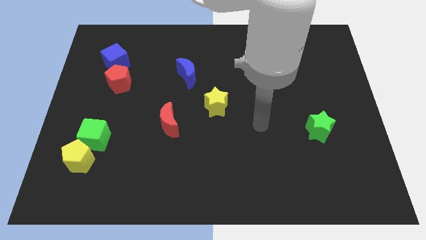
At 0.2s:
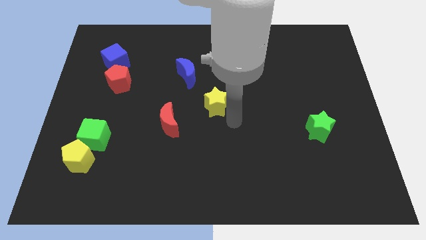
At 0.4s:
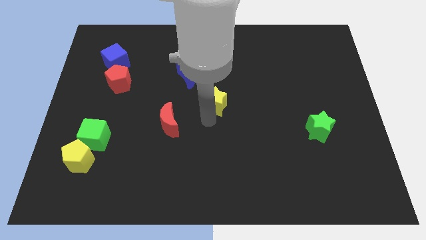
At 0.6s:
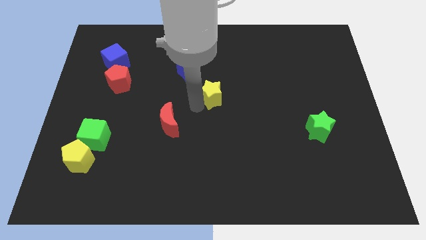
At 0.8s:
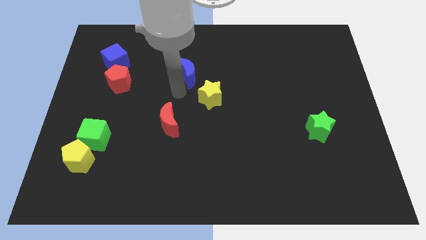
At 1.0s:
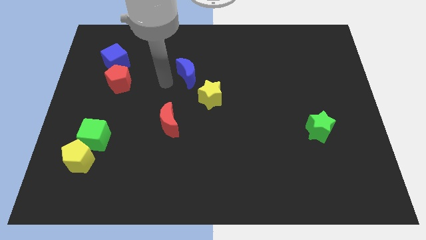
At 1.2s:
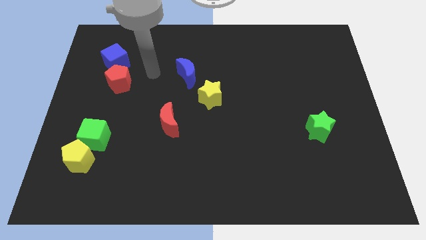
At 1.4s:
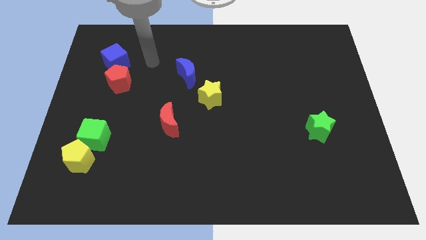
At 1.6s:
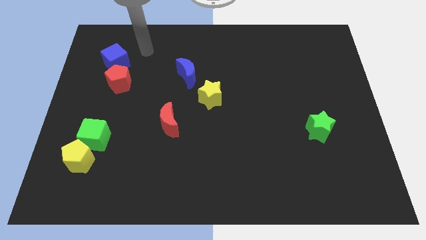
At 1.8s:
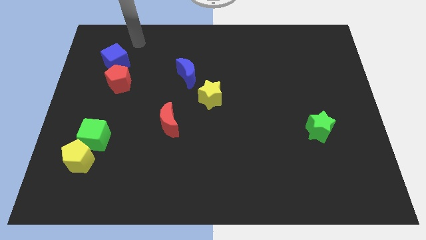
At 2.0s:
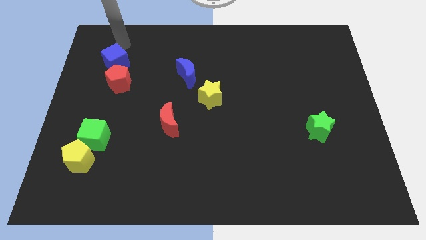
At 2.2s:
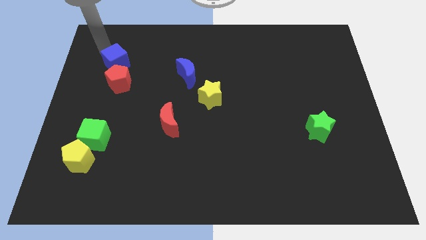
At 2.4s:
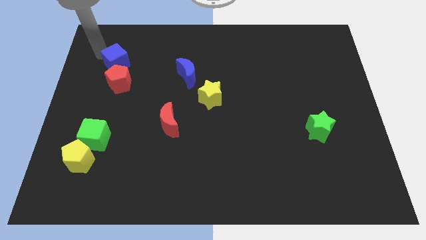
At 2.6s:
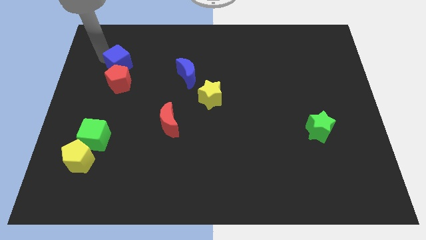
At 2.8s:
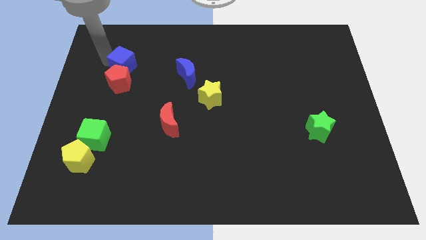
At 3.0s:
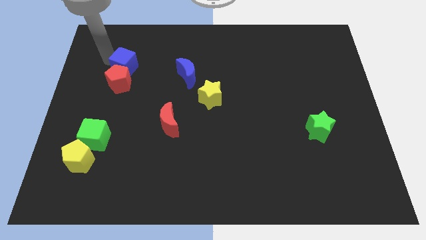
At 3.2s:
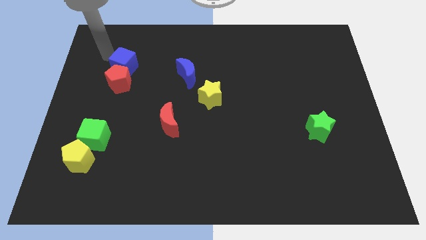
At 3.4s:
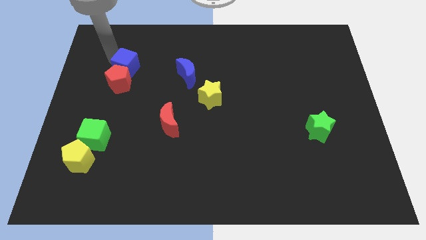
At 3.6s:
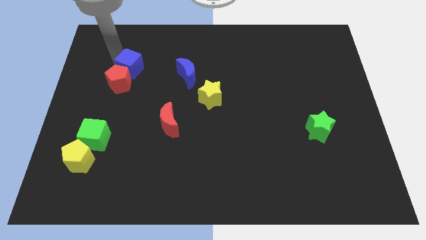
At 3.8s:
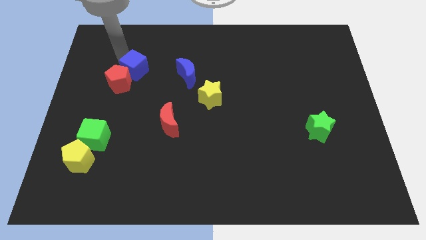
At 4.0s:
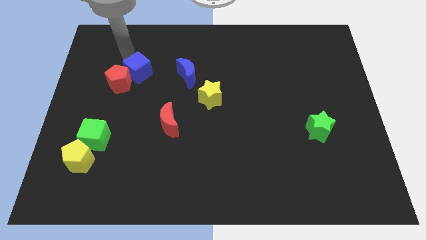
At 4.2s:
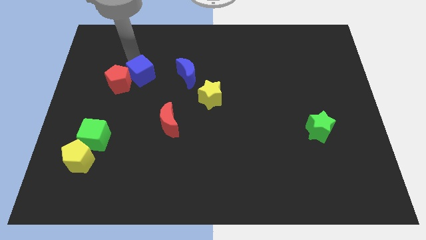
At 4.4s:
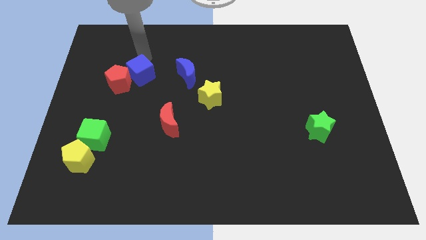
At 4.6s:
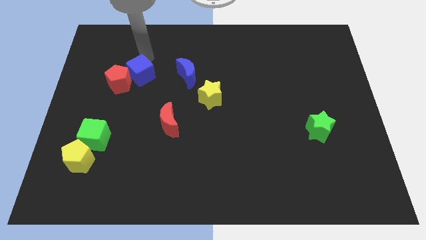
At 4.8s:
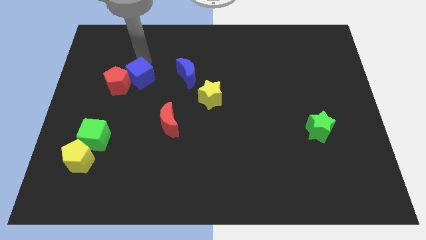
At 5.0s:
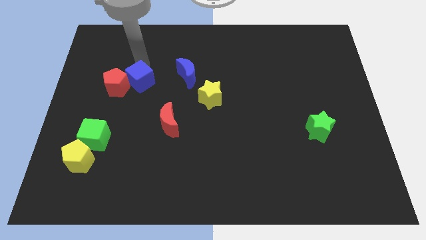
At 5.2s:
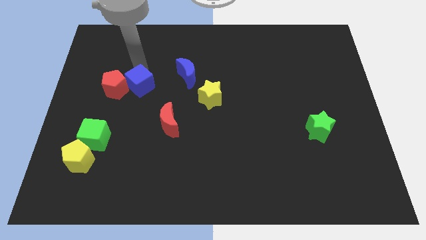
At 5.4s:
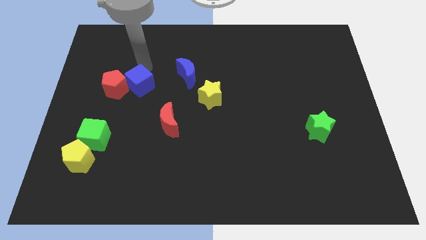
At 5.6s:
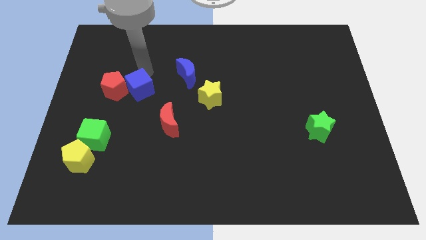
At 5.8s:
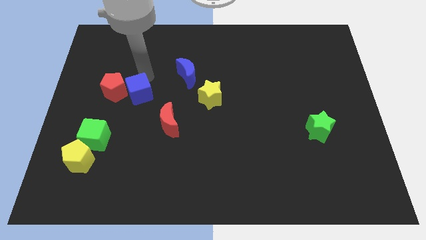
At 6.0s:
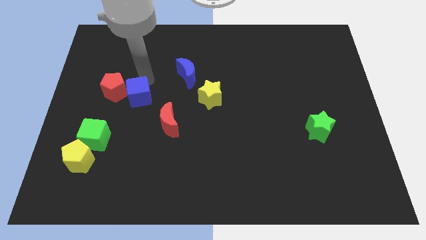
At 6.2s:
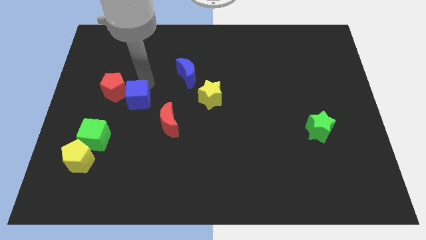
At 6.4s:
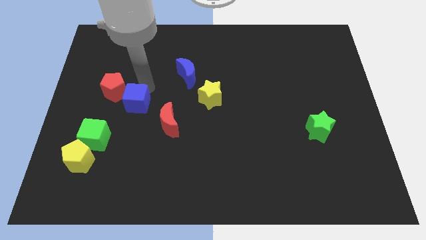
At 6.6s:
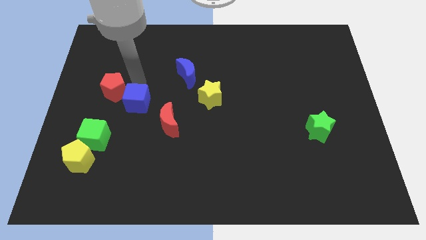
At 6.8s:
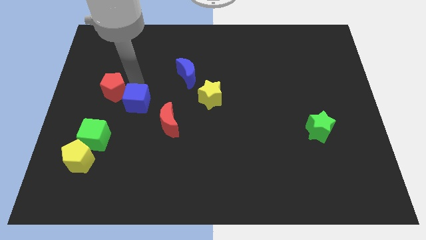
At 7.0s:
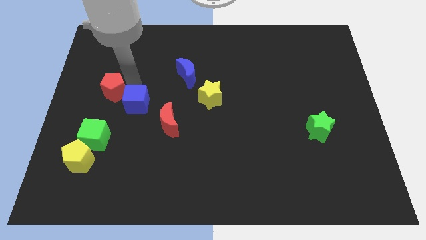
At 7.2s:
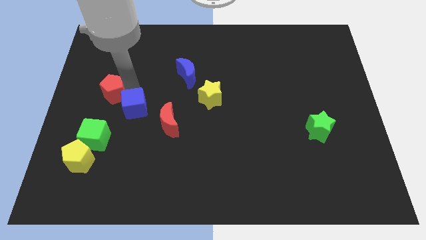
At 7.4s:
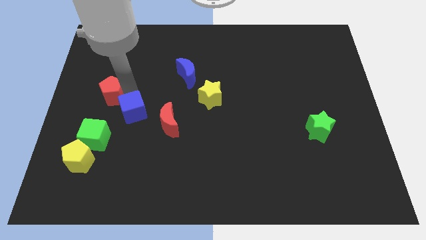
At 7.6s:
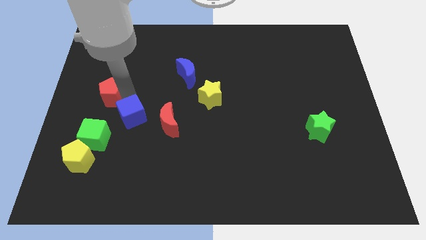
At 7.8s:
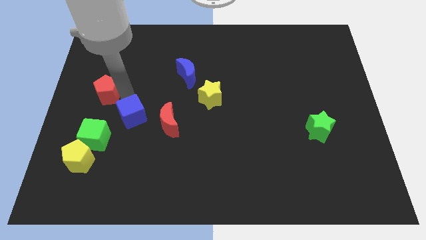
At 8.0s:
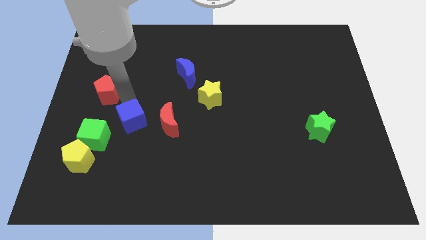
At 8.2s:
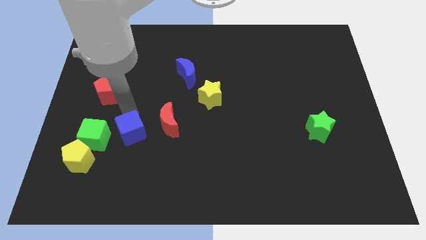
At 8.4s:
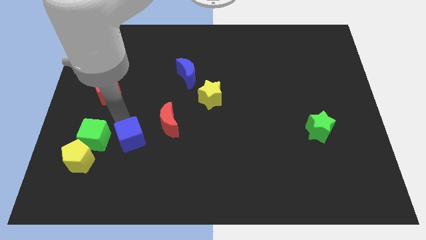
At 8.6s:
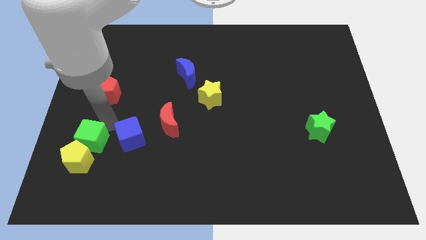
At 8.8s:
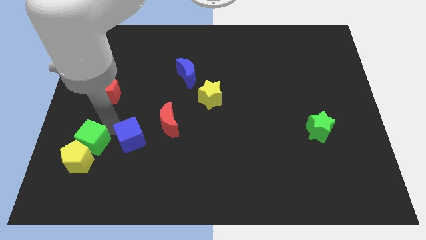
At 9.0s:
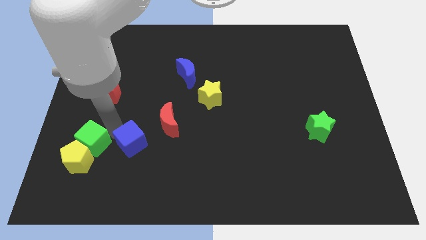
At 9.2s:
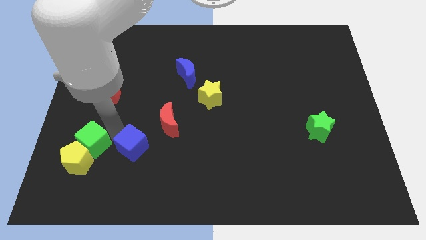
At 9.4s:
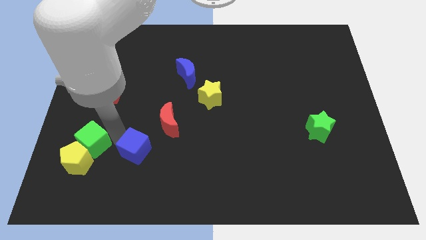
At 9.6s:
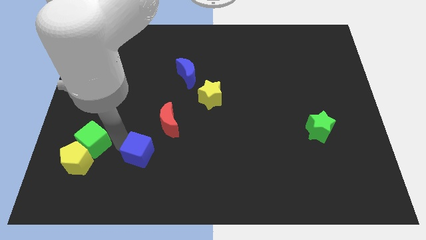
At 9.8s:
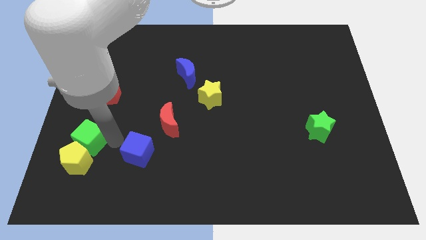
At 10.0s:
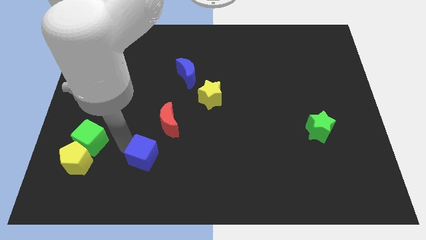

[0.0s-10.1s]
slide the blue cube to the bottom of the red moon

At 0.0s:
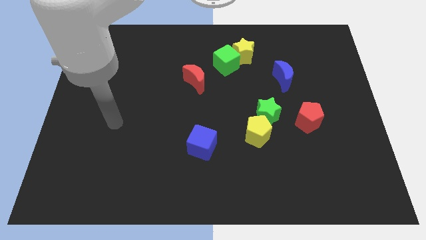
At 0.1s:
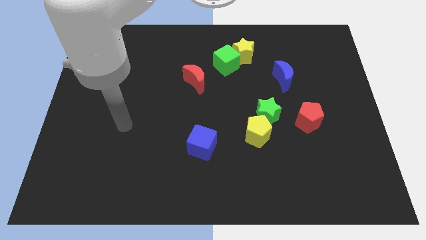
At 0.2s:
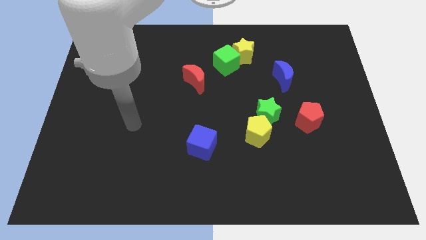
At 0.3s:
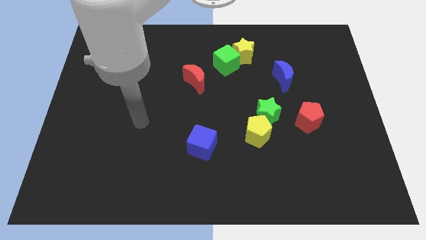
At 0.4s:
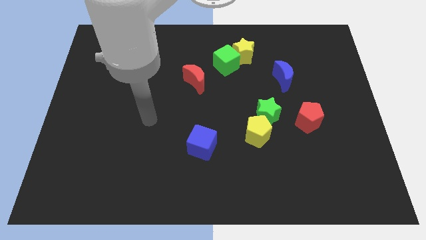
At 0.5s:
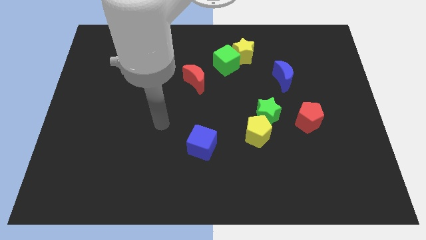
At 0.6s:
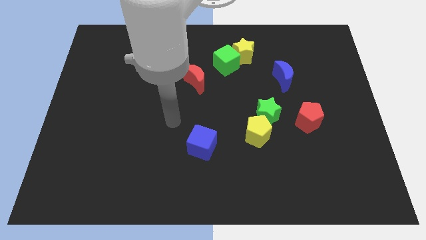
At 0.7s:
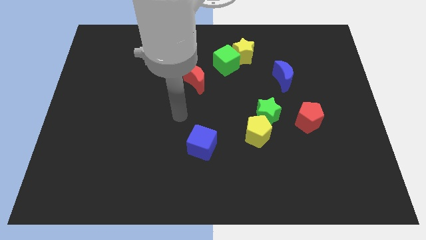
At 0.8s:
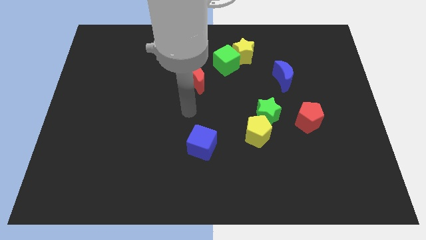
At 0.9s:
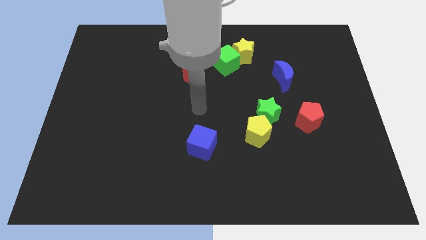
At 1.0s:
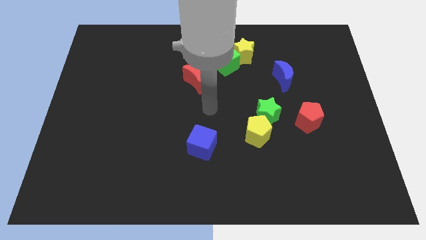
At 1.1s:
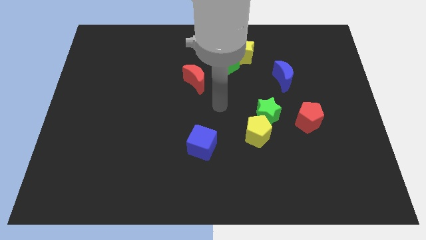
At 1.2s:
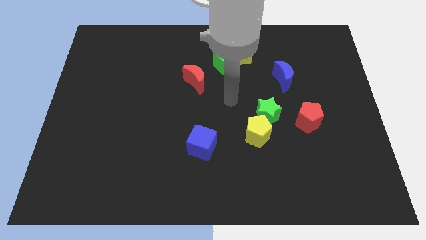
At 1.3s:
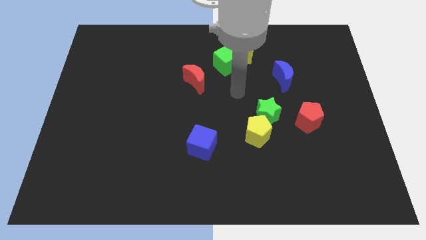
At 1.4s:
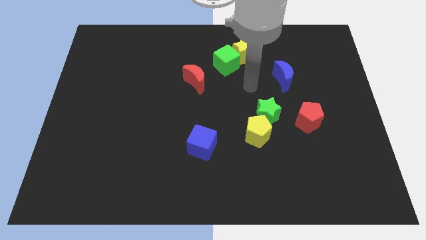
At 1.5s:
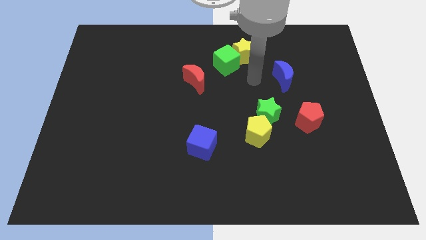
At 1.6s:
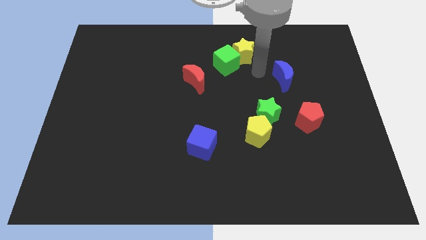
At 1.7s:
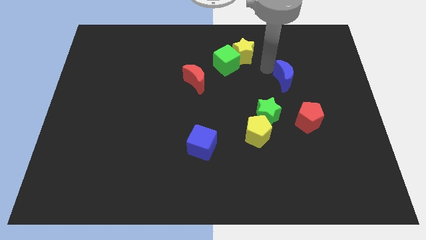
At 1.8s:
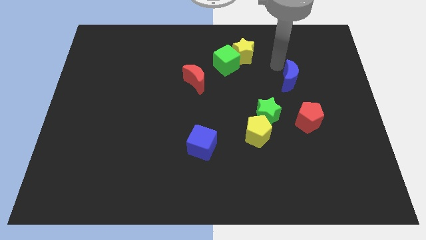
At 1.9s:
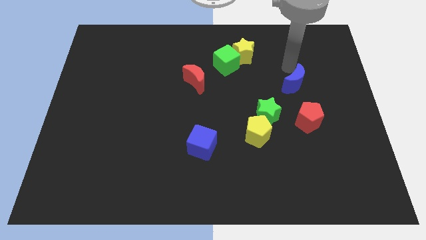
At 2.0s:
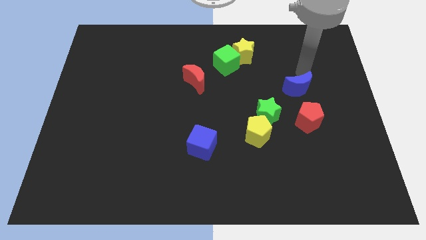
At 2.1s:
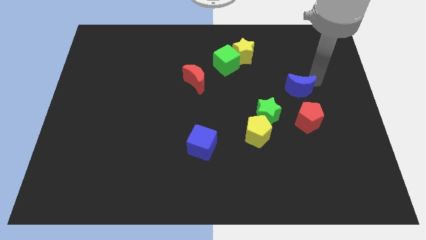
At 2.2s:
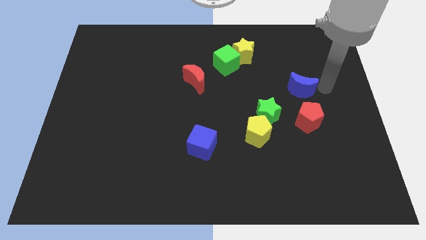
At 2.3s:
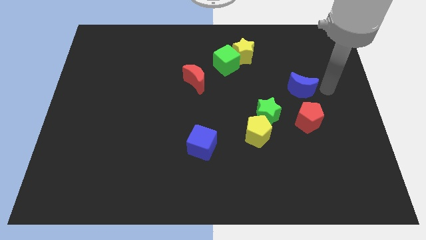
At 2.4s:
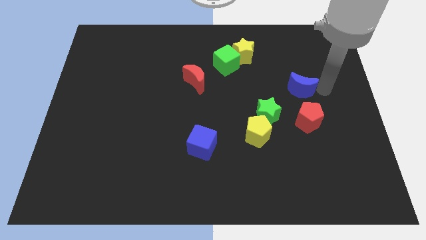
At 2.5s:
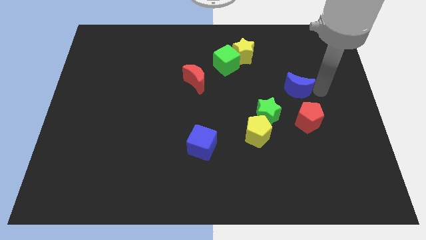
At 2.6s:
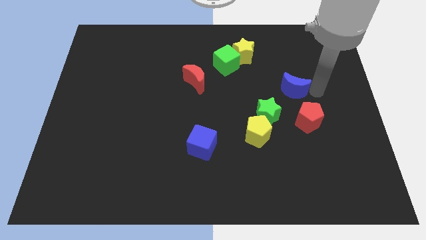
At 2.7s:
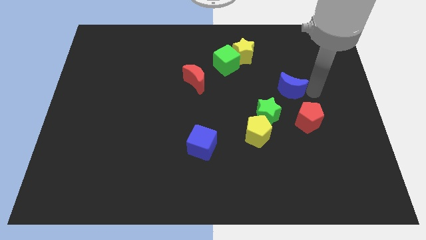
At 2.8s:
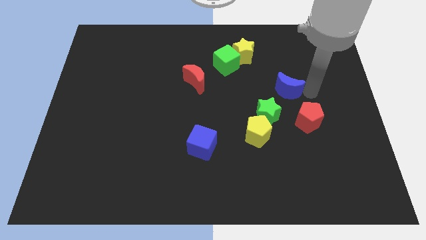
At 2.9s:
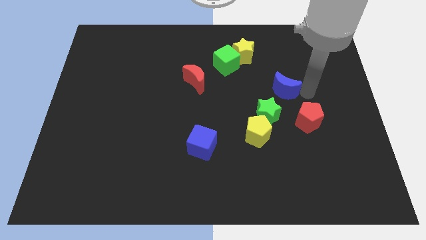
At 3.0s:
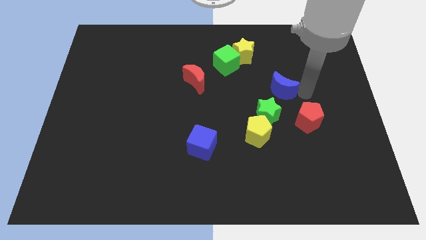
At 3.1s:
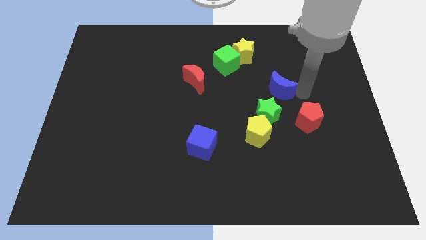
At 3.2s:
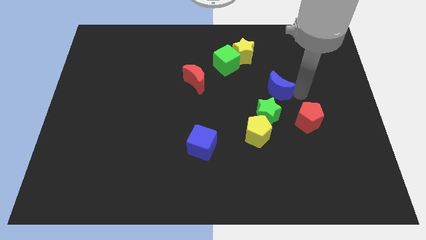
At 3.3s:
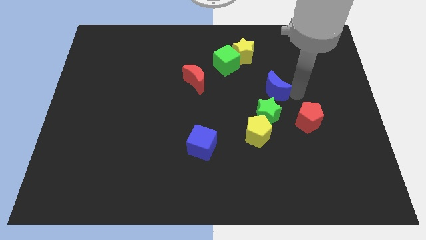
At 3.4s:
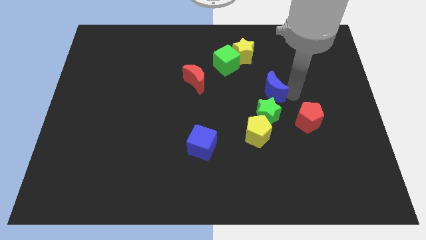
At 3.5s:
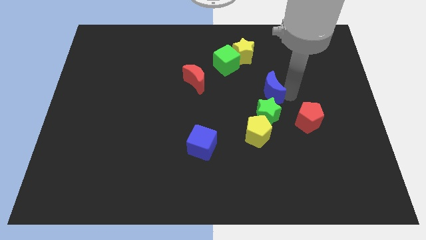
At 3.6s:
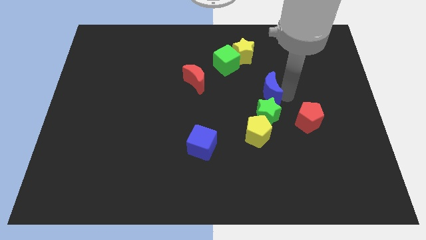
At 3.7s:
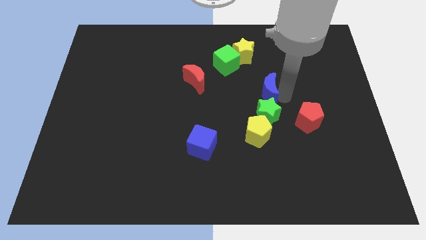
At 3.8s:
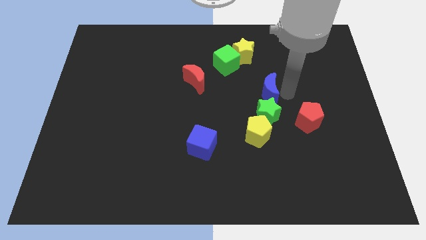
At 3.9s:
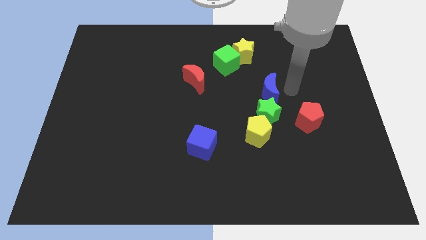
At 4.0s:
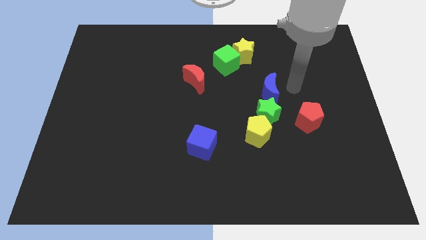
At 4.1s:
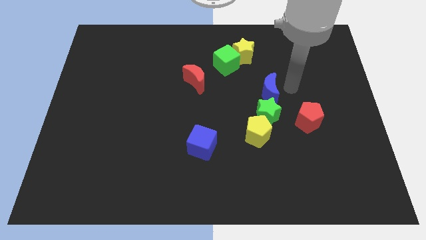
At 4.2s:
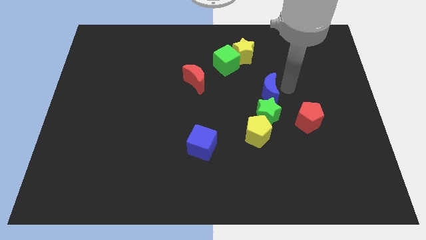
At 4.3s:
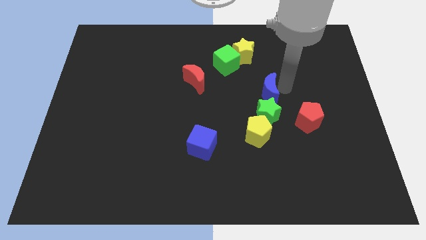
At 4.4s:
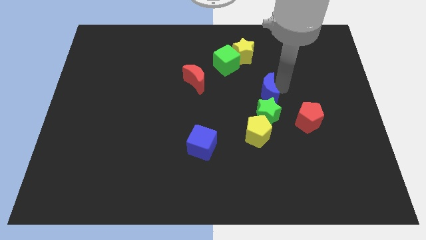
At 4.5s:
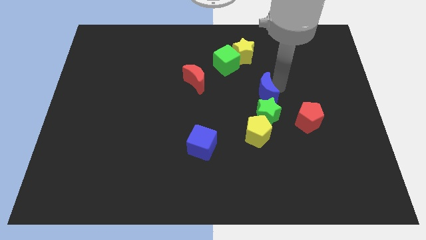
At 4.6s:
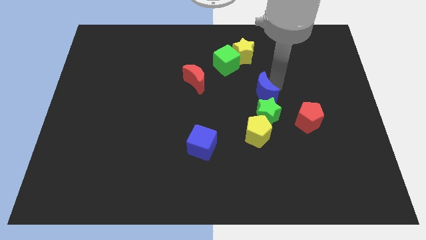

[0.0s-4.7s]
move the blue moon diagonally up and to the left of the green star
